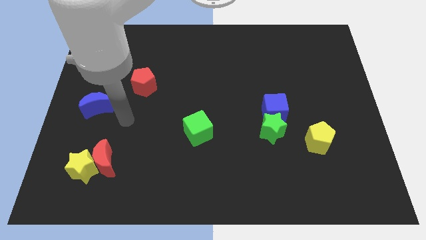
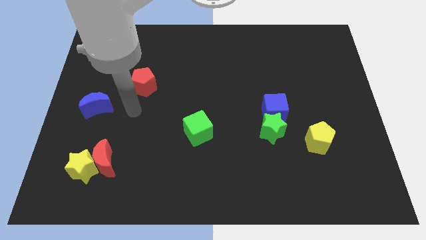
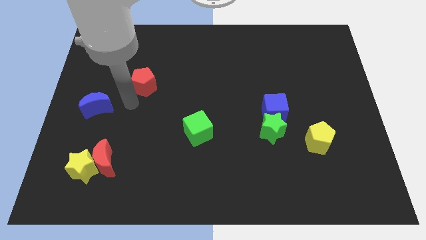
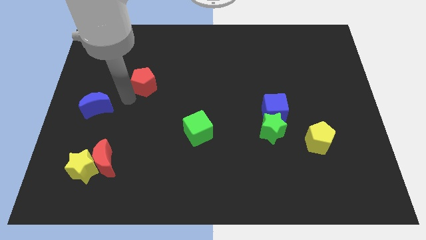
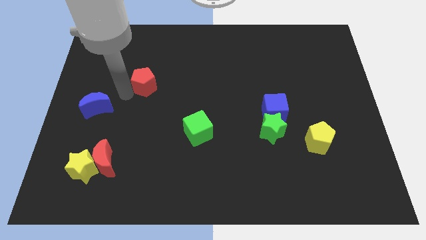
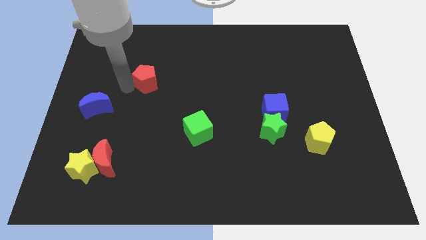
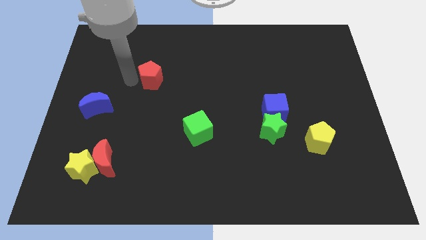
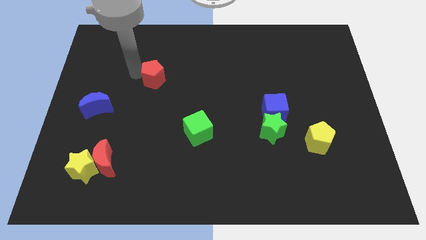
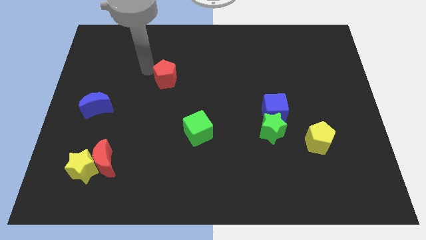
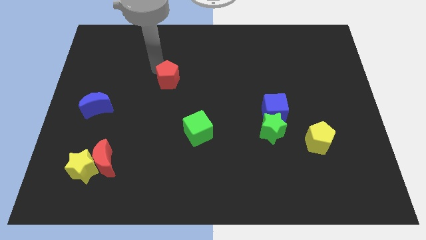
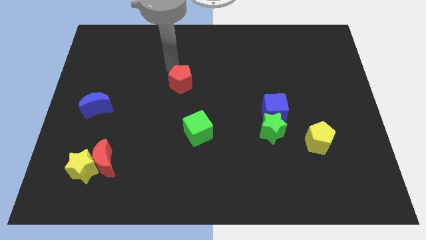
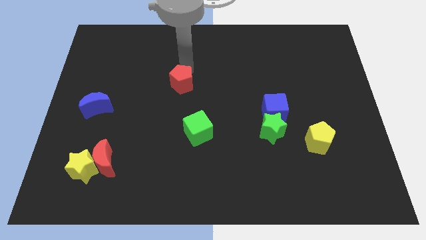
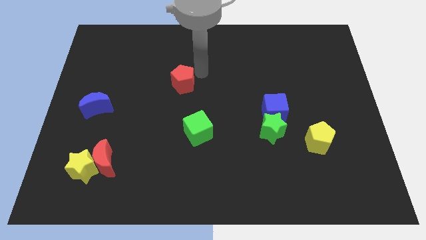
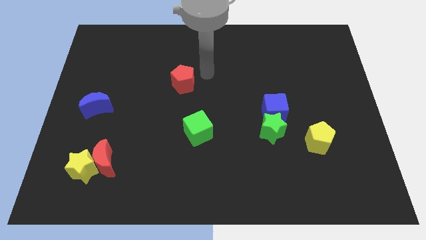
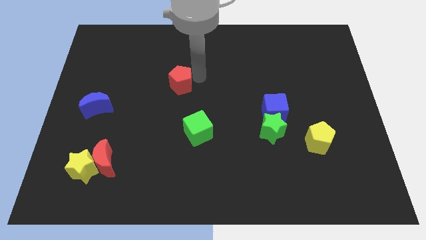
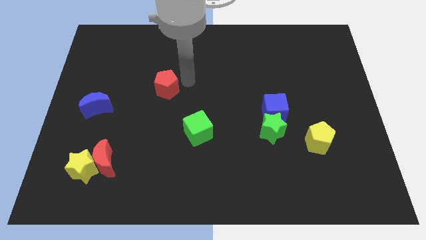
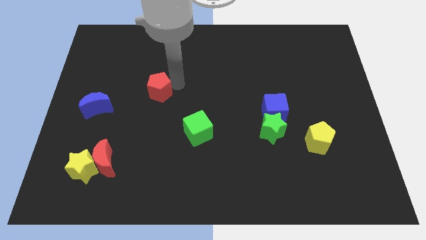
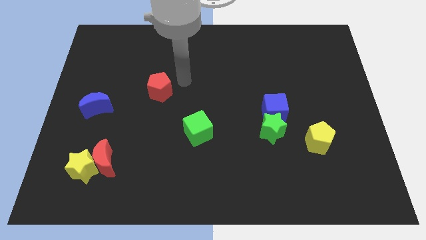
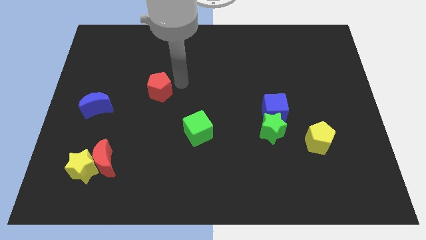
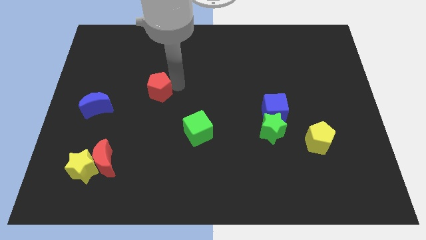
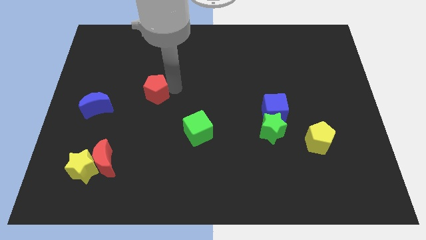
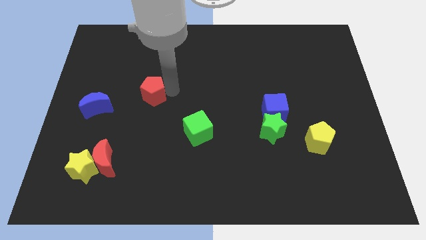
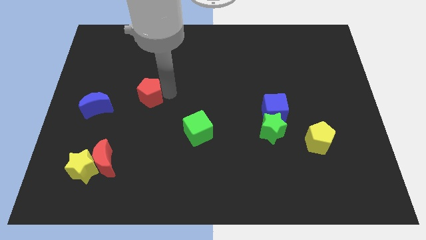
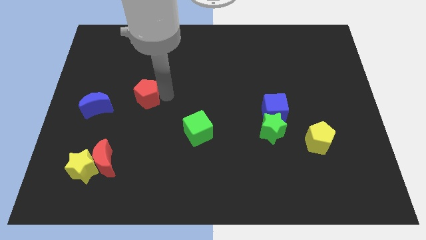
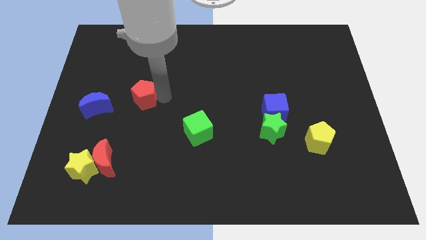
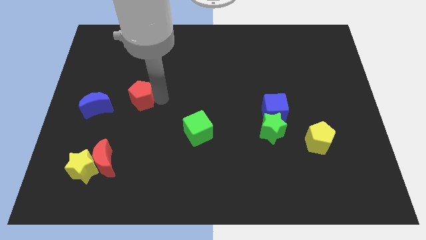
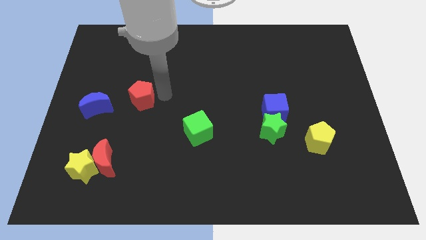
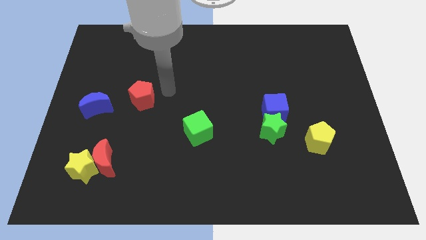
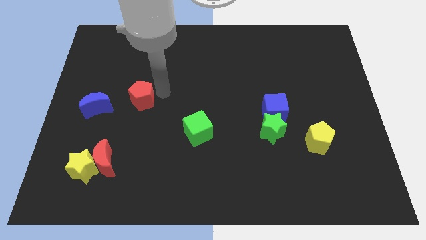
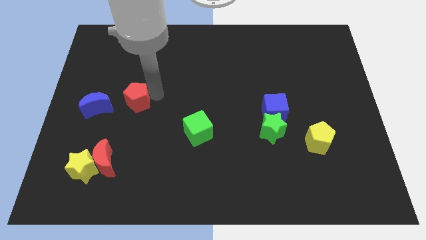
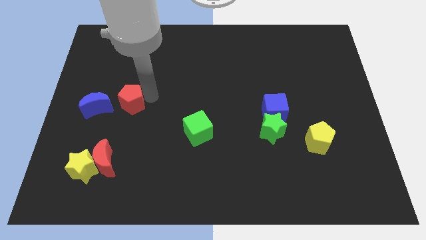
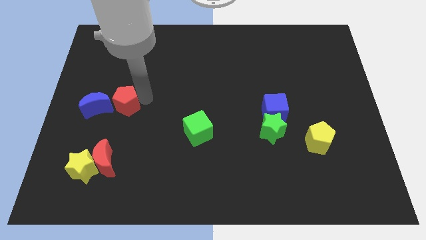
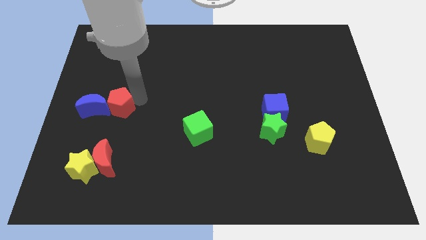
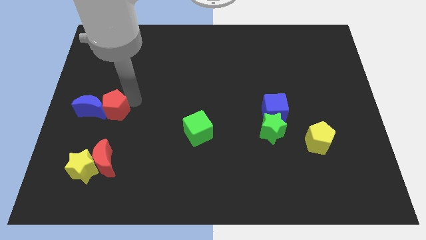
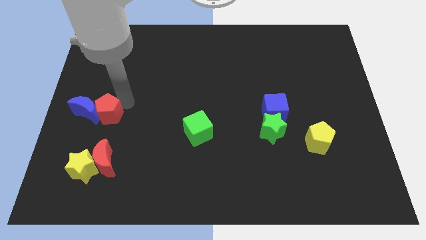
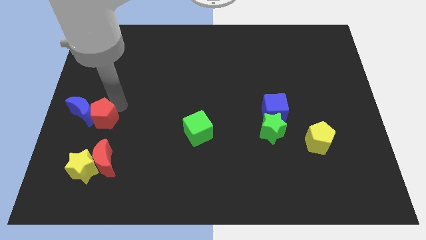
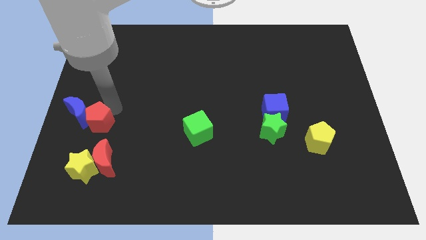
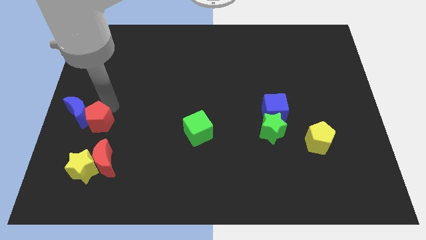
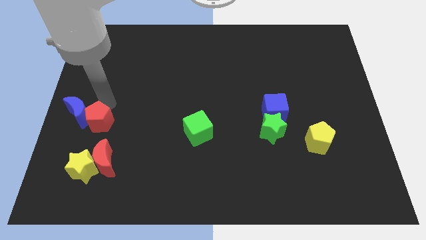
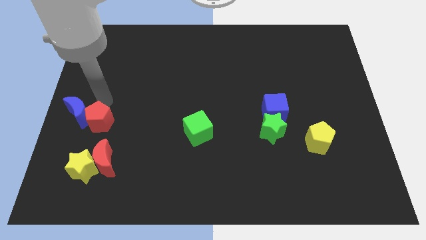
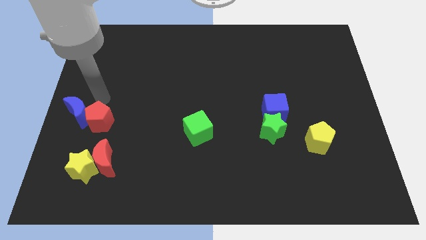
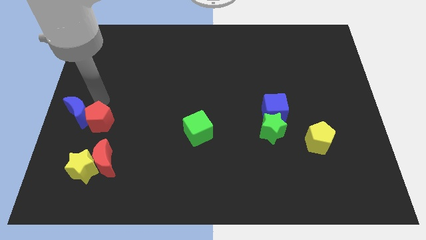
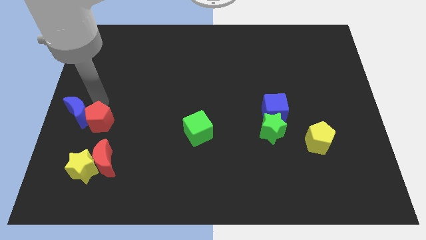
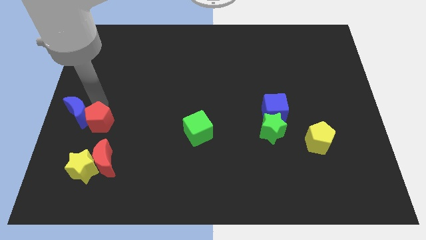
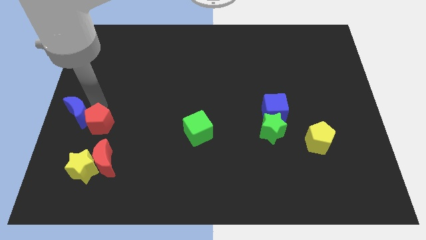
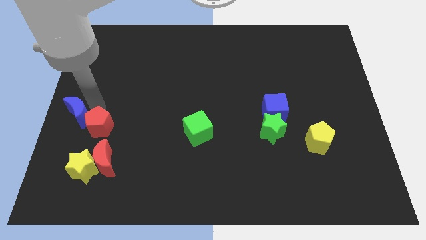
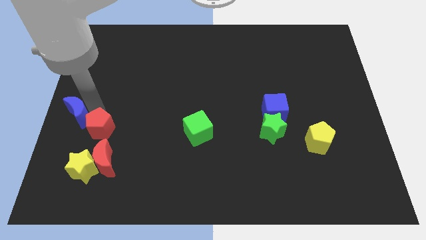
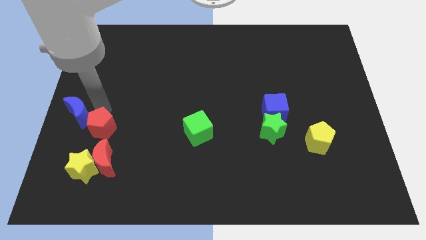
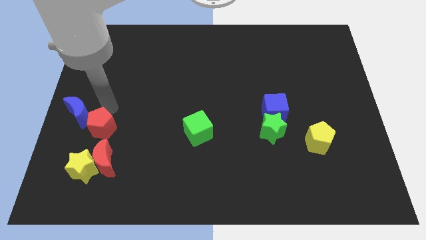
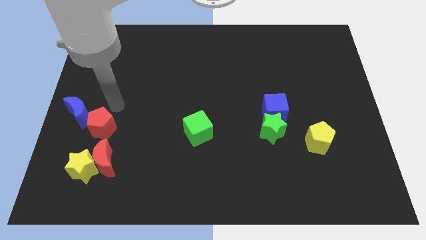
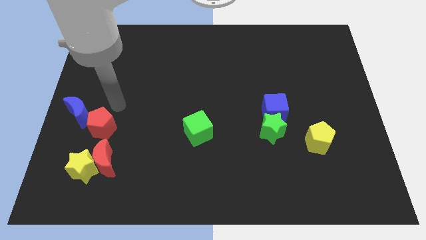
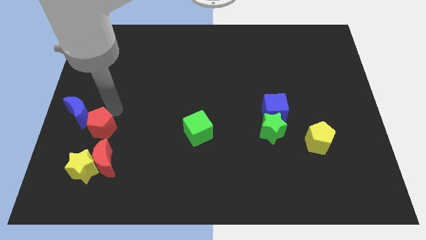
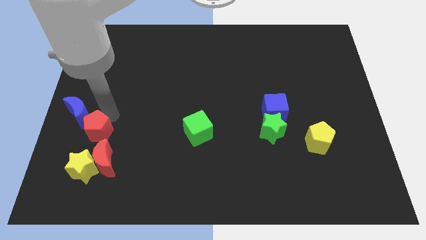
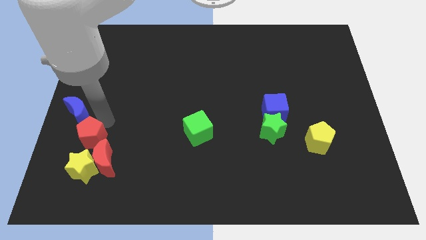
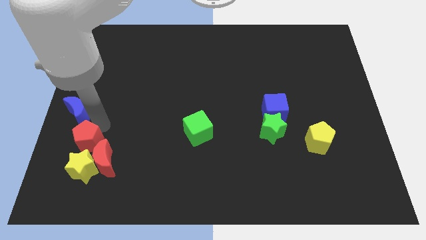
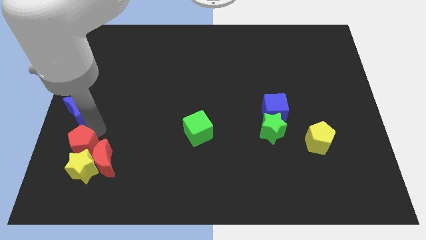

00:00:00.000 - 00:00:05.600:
push the red pentagon towards the yellow star

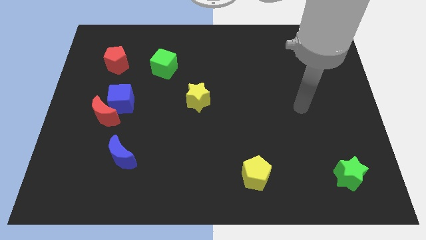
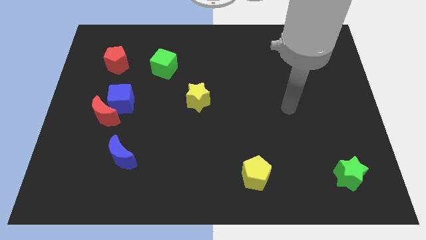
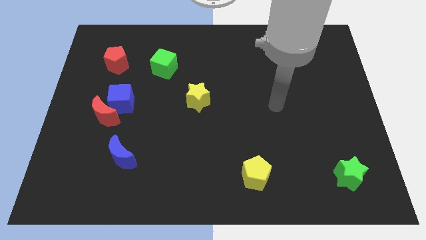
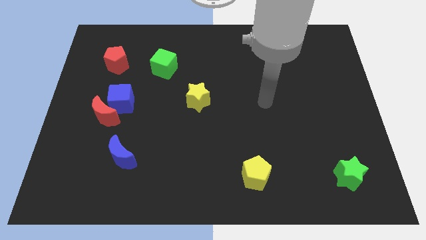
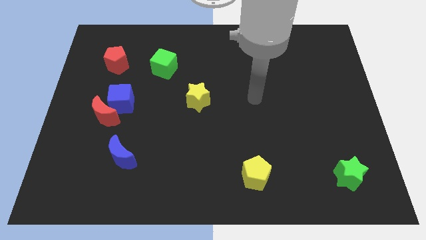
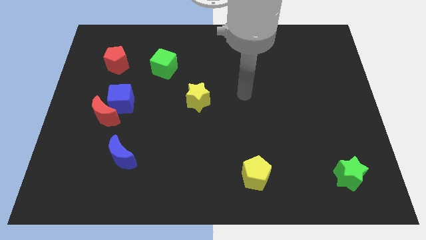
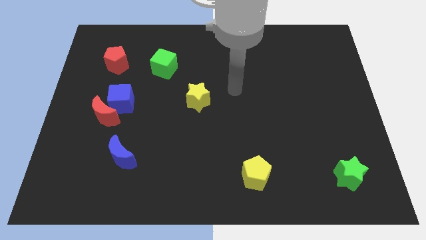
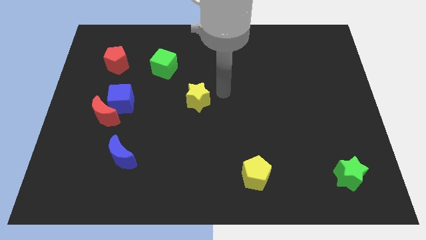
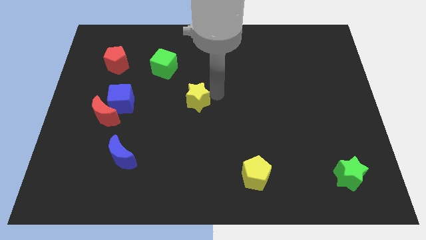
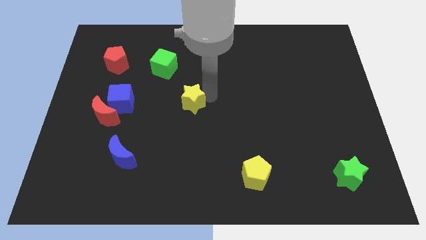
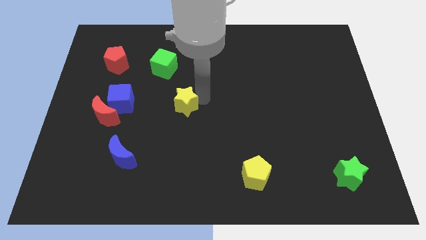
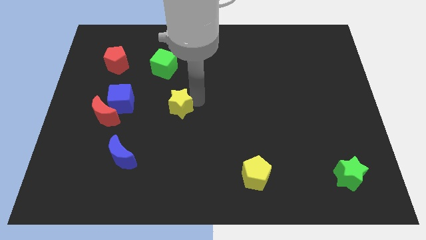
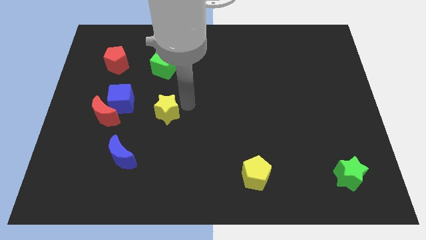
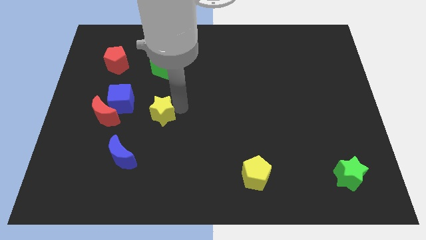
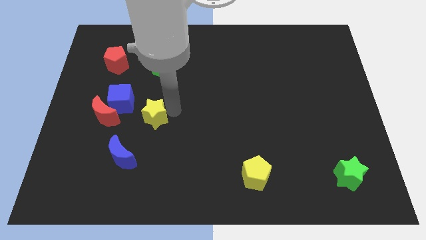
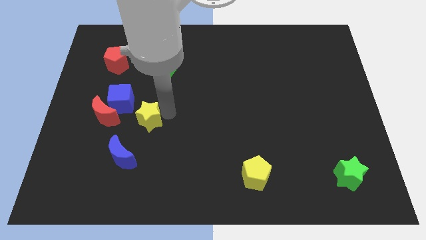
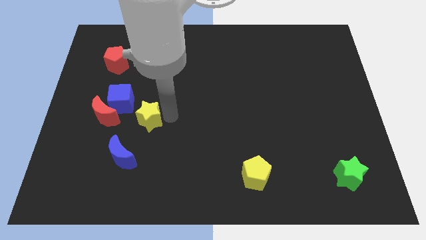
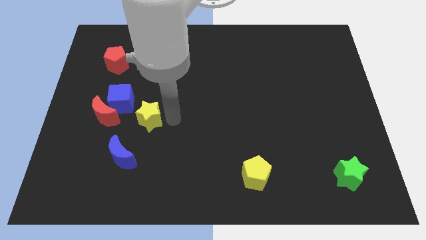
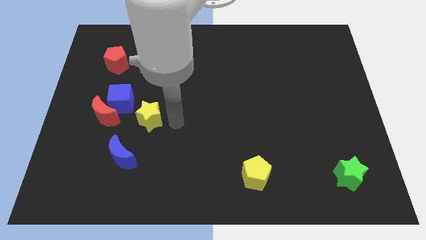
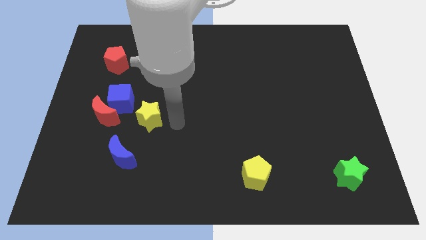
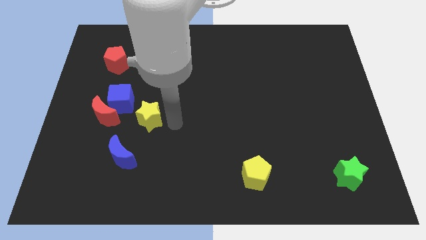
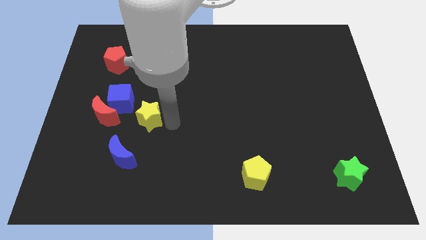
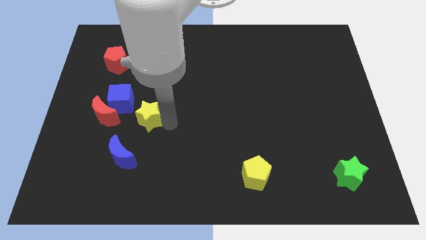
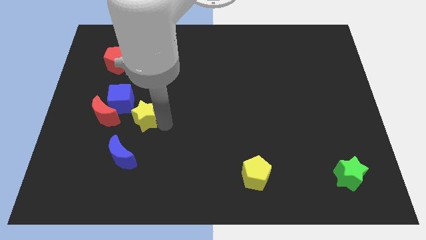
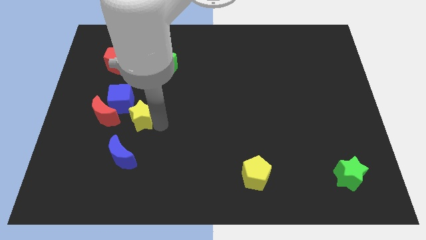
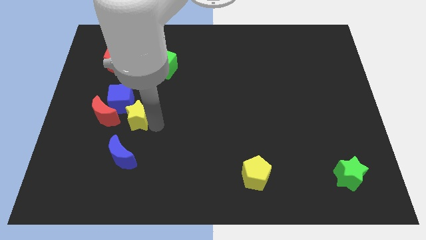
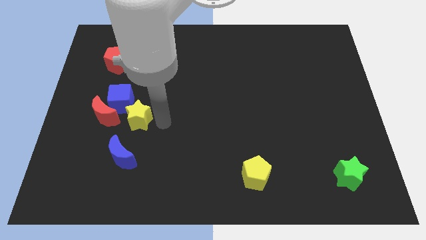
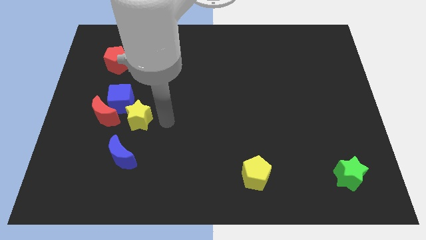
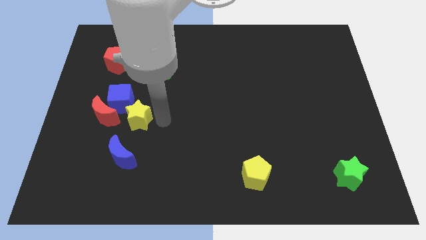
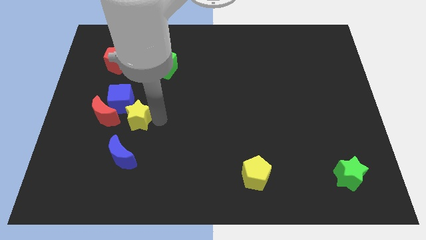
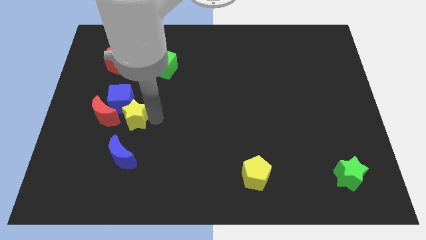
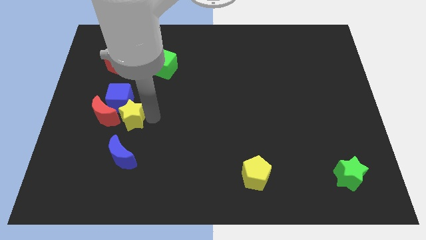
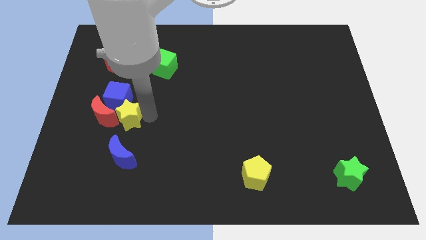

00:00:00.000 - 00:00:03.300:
put the yellow star to the red moon
